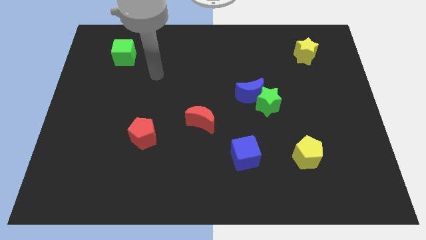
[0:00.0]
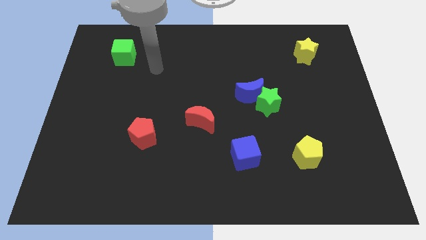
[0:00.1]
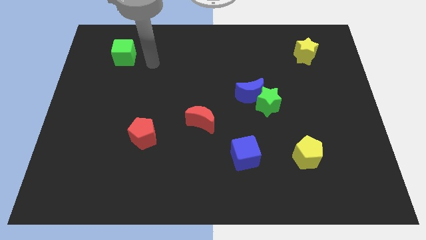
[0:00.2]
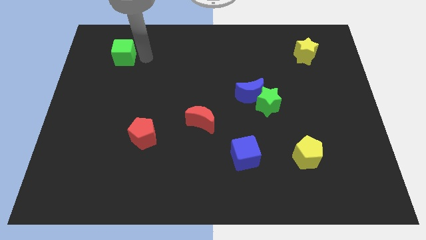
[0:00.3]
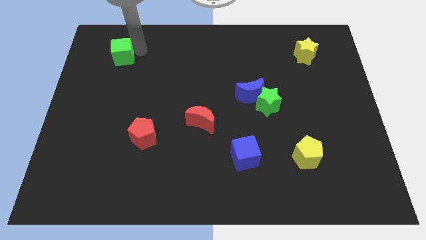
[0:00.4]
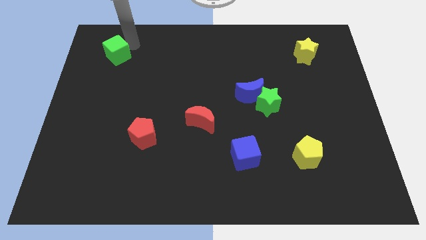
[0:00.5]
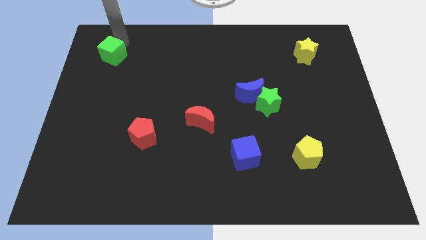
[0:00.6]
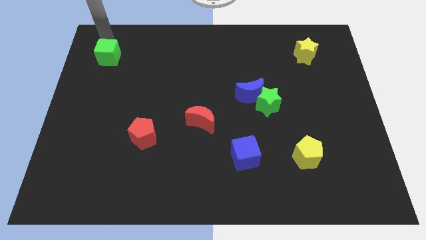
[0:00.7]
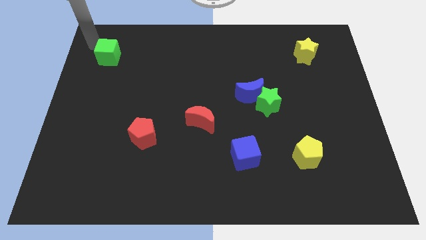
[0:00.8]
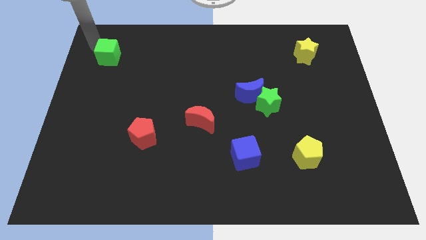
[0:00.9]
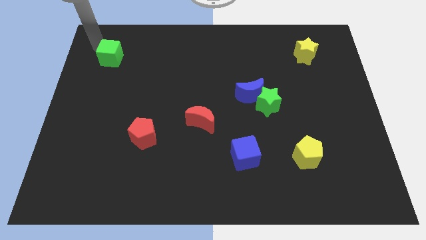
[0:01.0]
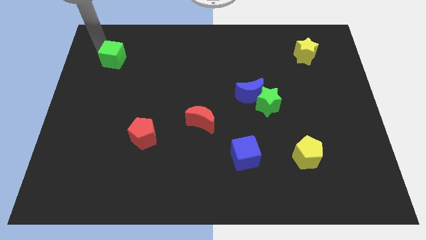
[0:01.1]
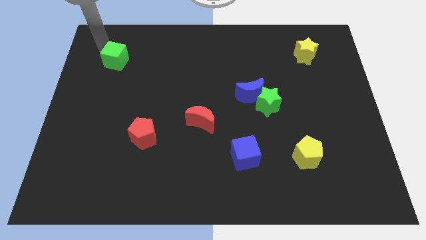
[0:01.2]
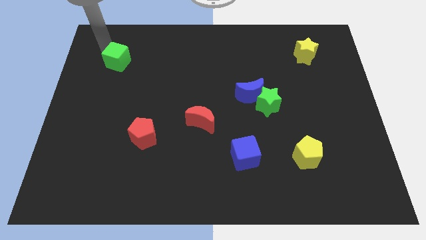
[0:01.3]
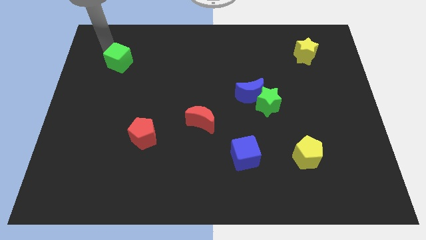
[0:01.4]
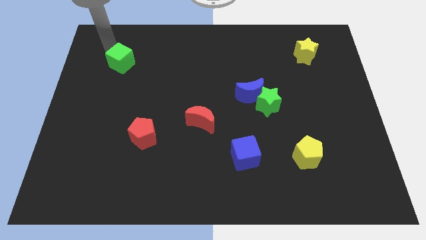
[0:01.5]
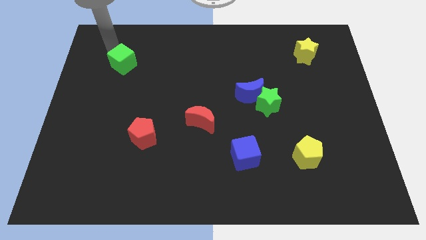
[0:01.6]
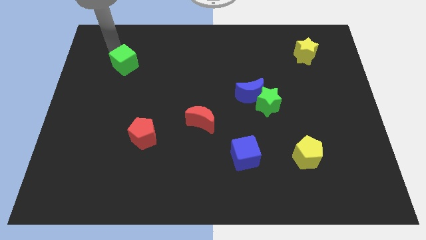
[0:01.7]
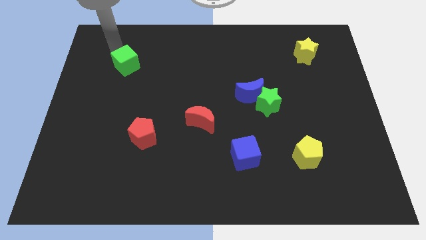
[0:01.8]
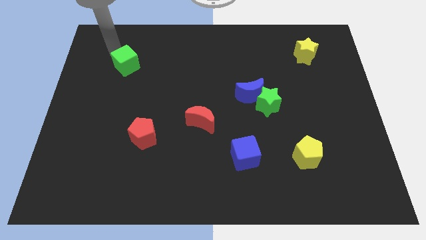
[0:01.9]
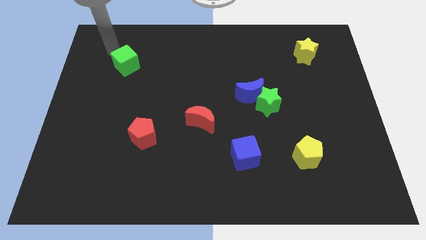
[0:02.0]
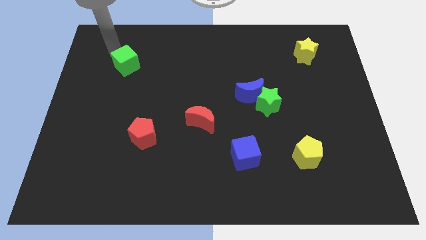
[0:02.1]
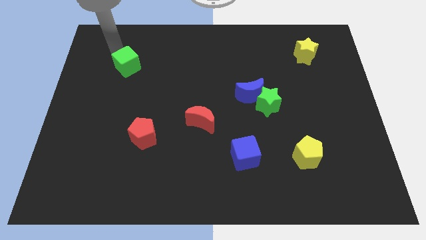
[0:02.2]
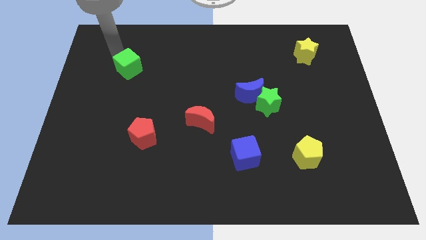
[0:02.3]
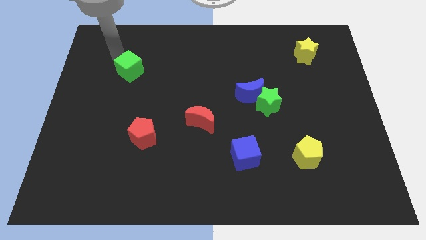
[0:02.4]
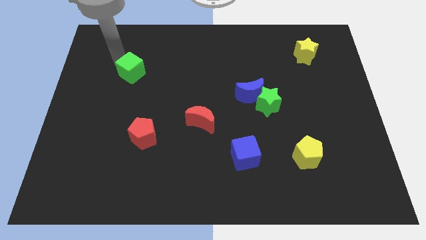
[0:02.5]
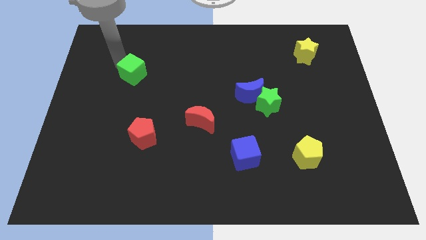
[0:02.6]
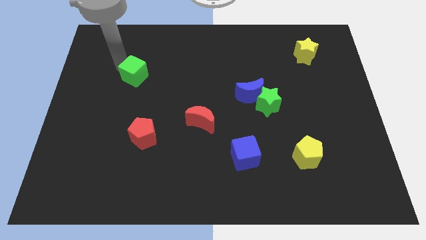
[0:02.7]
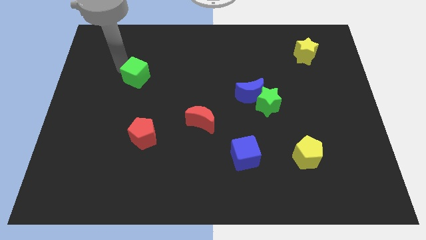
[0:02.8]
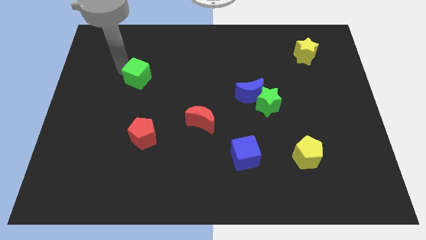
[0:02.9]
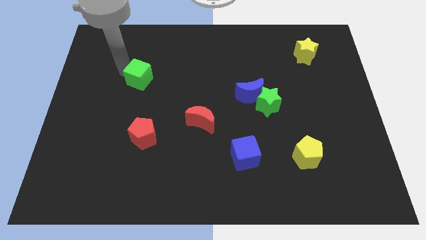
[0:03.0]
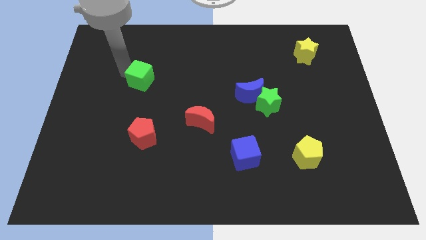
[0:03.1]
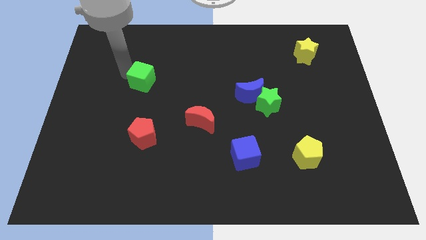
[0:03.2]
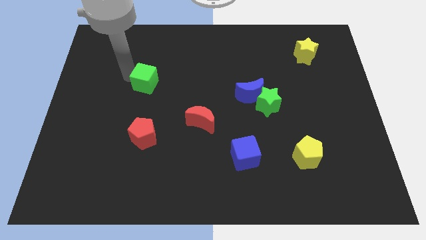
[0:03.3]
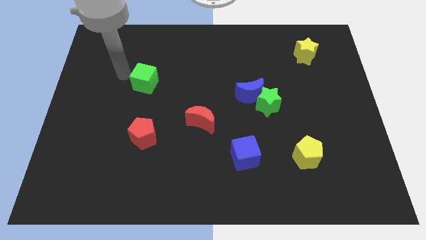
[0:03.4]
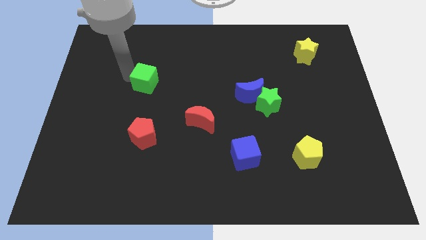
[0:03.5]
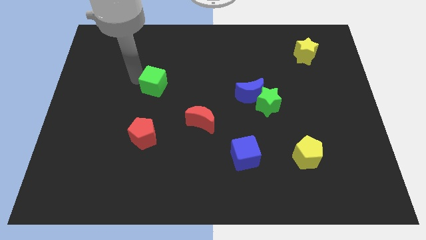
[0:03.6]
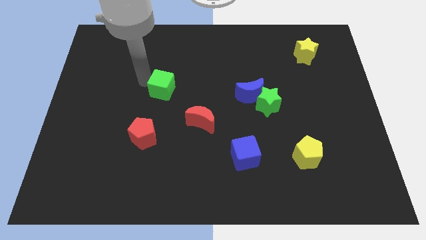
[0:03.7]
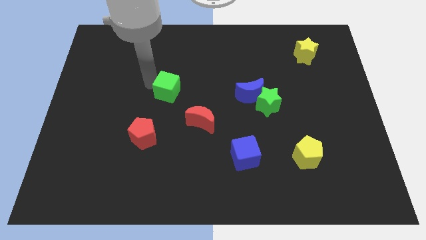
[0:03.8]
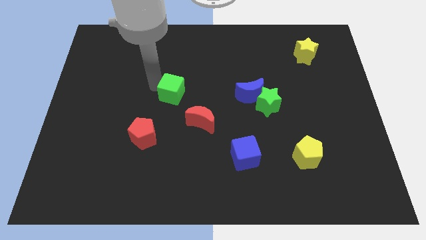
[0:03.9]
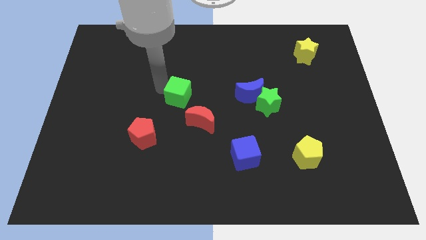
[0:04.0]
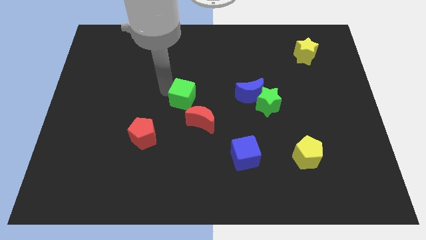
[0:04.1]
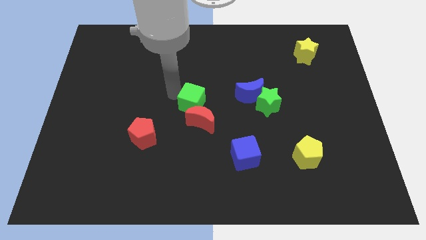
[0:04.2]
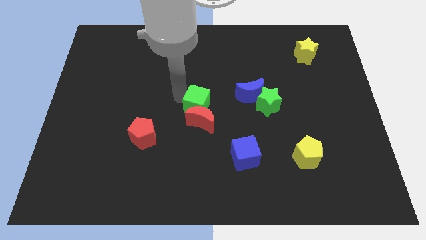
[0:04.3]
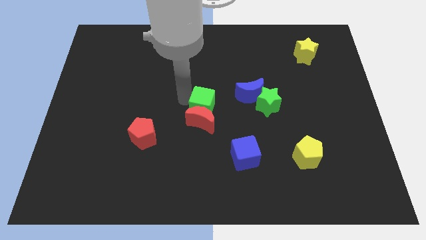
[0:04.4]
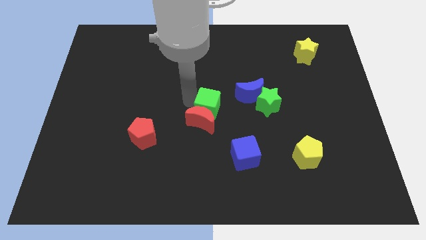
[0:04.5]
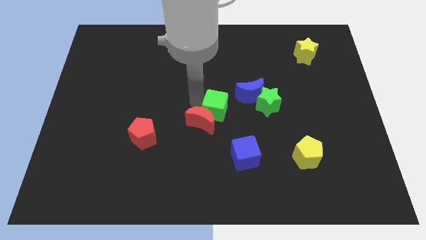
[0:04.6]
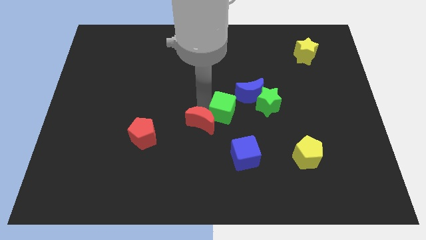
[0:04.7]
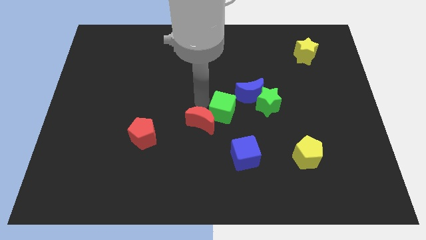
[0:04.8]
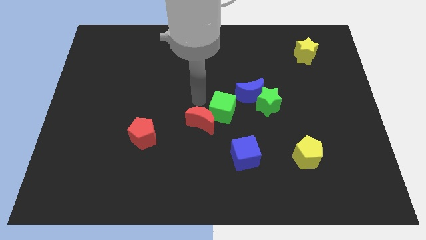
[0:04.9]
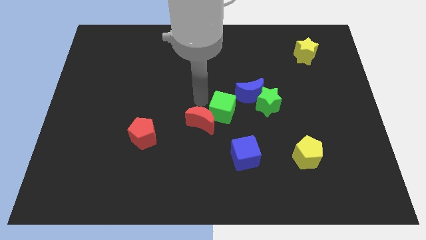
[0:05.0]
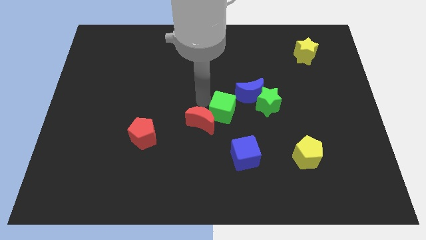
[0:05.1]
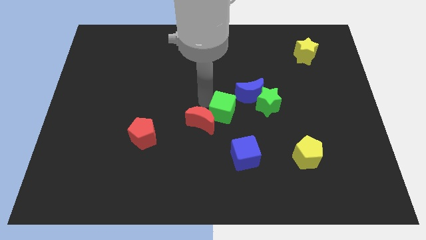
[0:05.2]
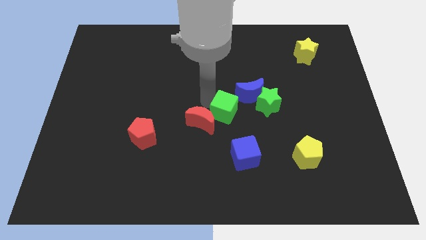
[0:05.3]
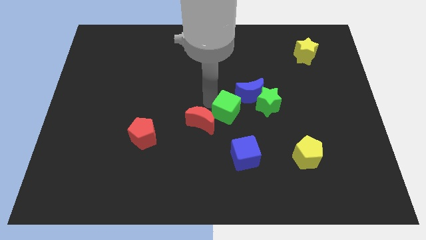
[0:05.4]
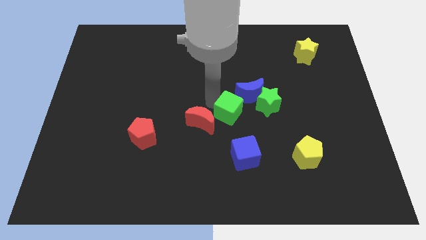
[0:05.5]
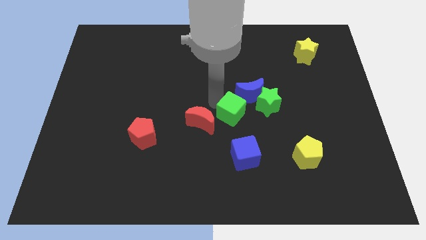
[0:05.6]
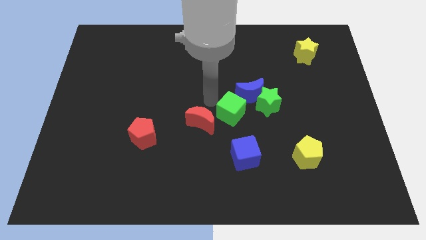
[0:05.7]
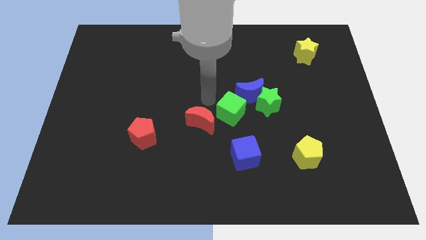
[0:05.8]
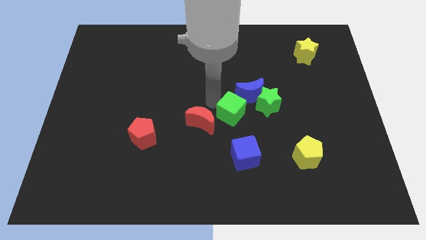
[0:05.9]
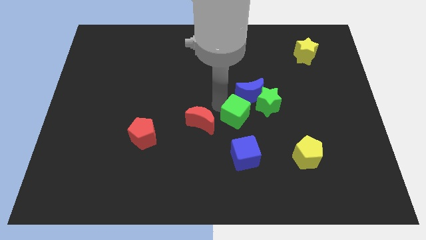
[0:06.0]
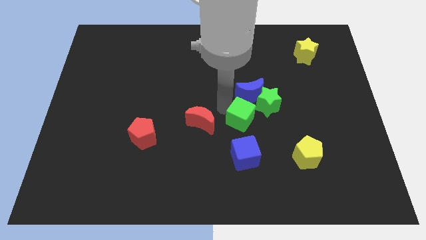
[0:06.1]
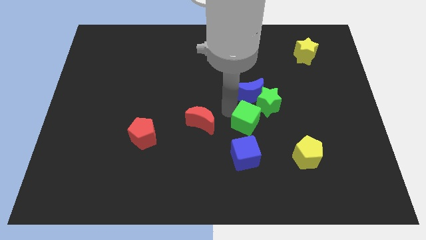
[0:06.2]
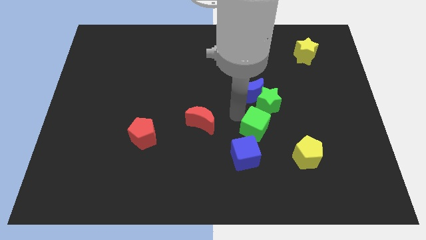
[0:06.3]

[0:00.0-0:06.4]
slide the green cube to the bottom of the green star
